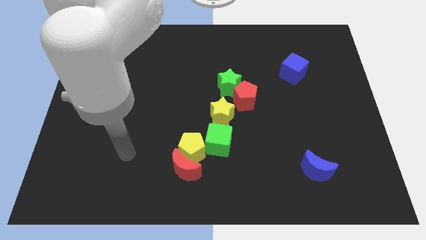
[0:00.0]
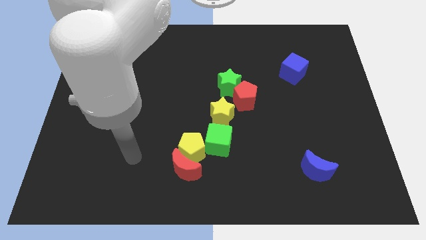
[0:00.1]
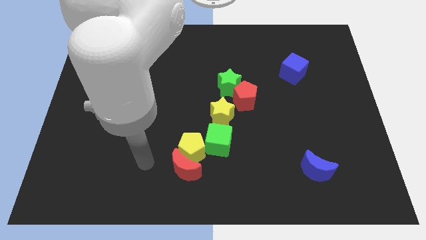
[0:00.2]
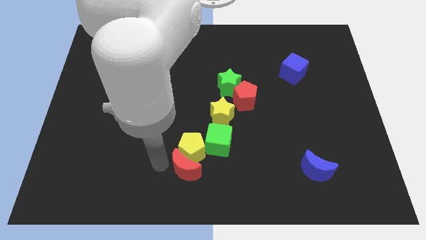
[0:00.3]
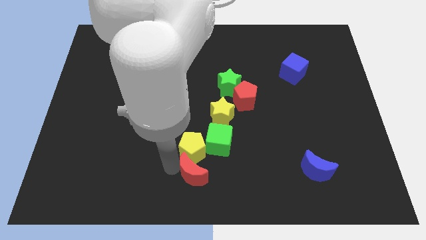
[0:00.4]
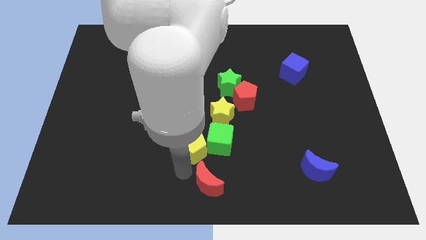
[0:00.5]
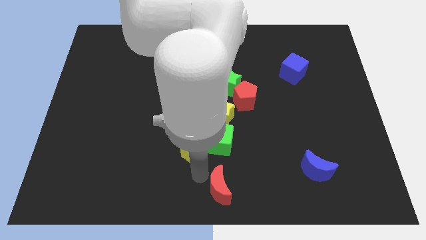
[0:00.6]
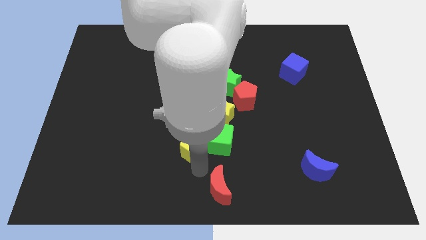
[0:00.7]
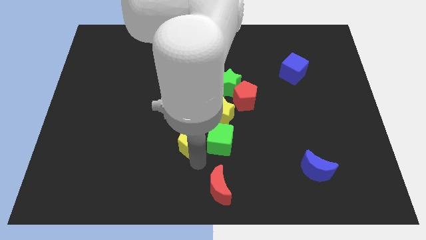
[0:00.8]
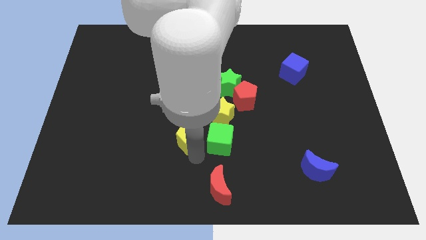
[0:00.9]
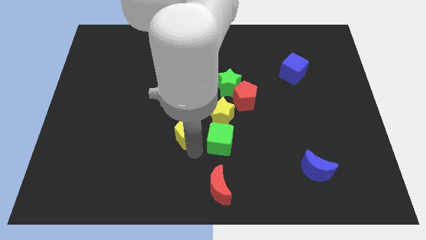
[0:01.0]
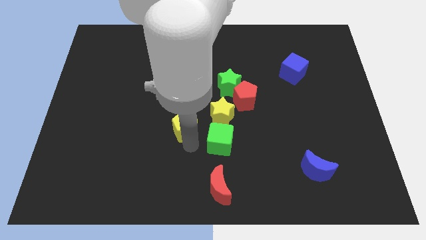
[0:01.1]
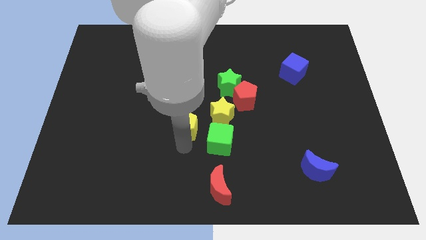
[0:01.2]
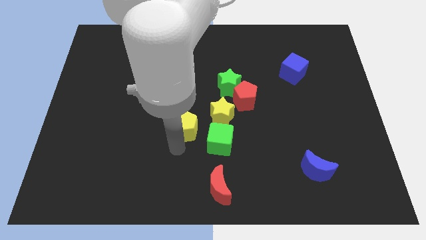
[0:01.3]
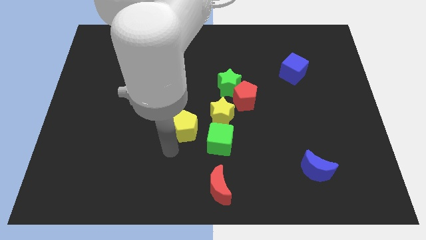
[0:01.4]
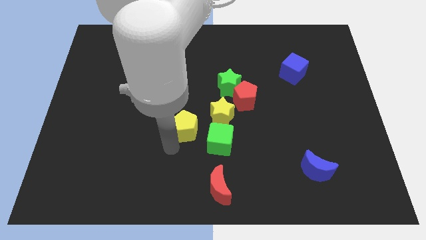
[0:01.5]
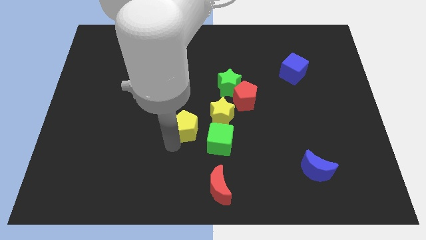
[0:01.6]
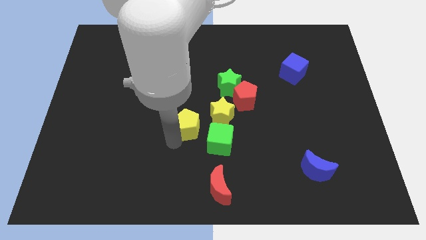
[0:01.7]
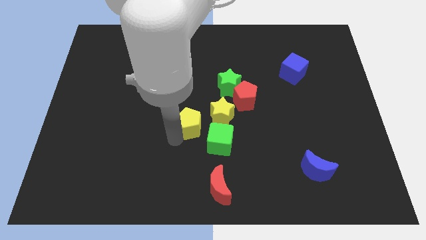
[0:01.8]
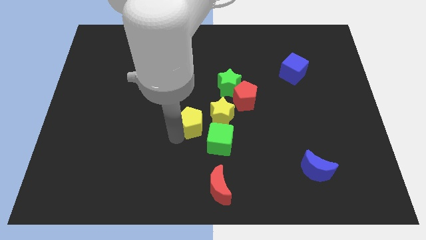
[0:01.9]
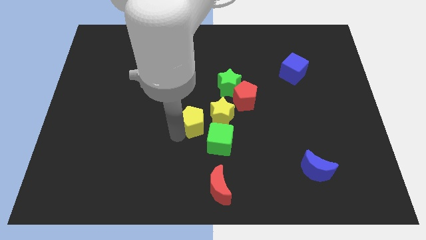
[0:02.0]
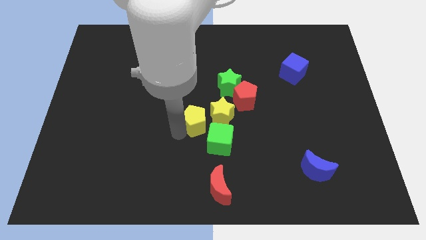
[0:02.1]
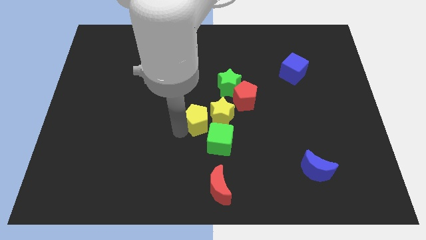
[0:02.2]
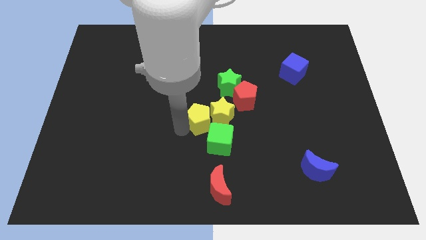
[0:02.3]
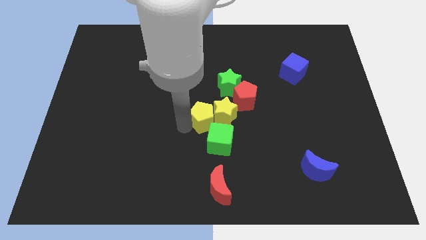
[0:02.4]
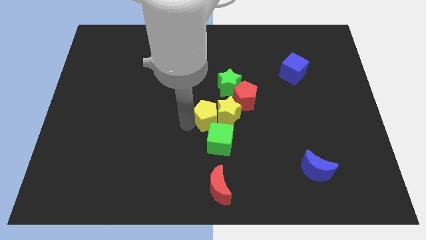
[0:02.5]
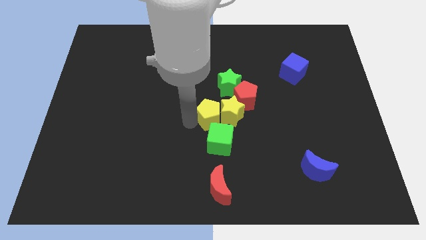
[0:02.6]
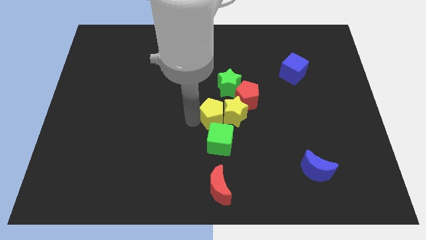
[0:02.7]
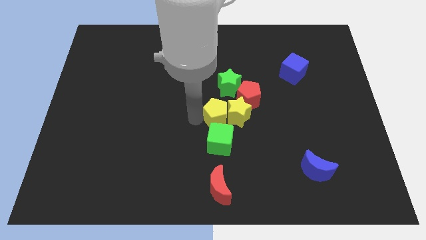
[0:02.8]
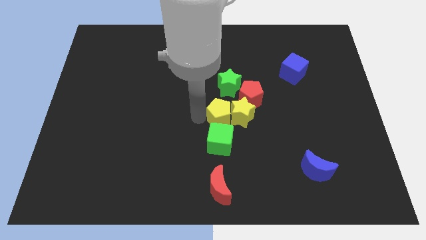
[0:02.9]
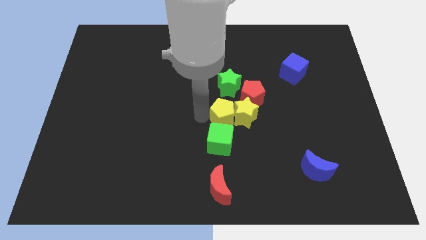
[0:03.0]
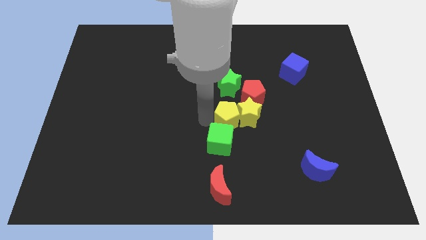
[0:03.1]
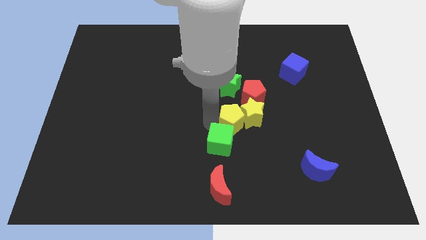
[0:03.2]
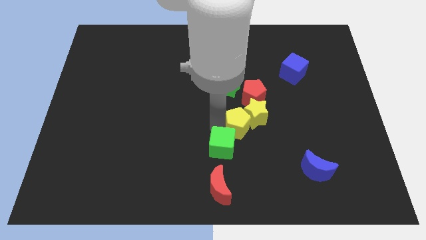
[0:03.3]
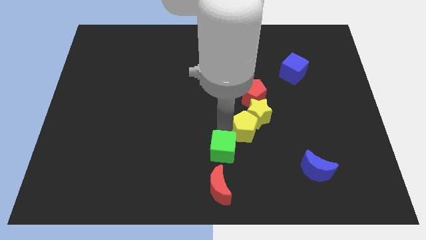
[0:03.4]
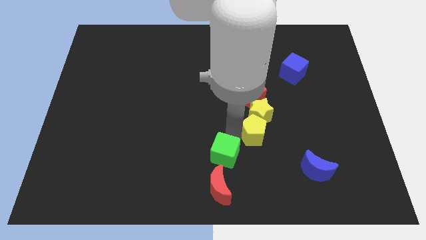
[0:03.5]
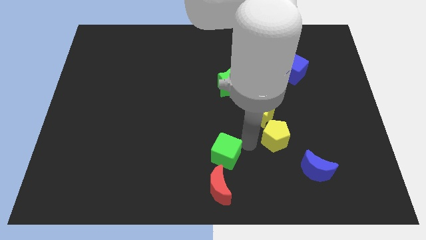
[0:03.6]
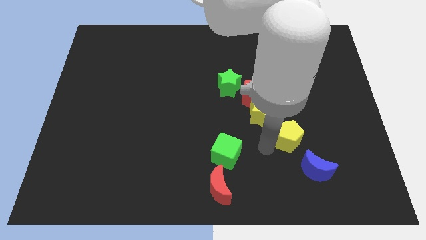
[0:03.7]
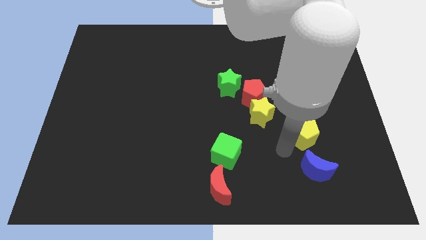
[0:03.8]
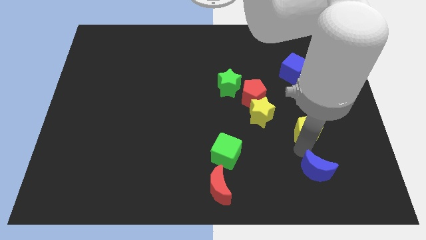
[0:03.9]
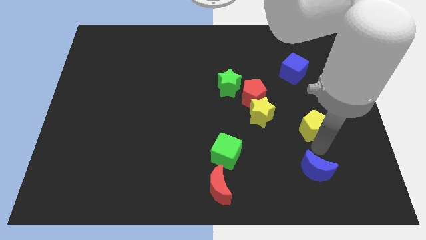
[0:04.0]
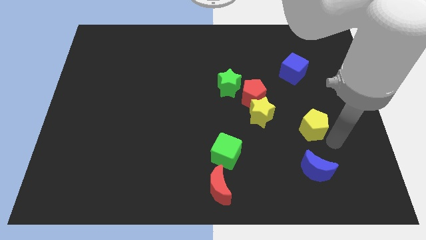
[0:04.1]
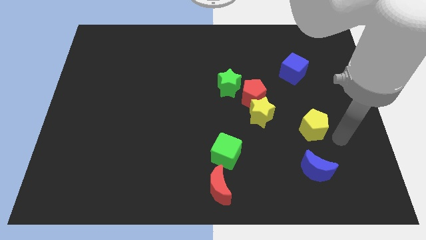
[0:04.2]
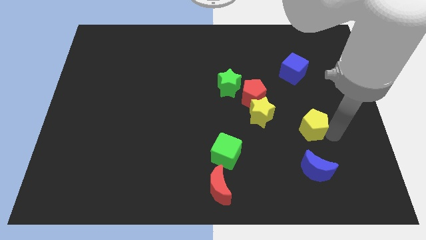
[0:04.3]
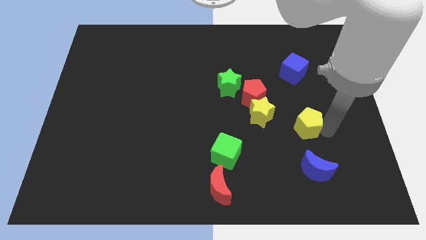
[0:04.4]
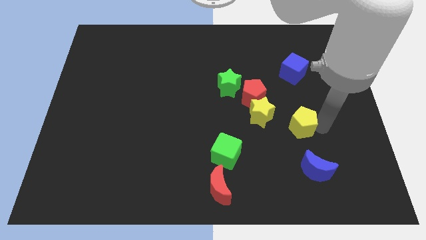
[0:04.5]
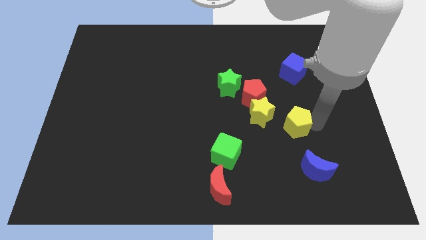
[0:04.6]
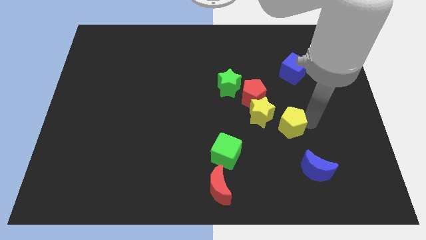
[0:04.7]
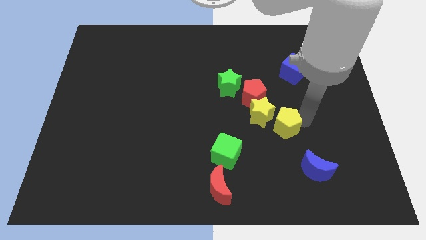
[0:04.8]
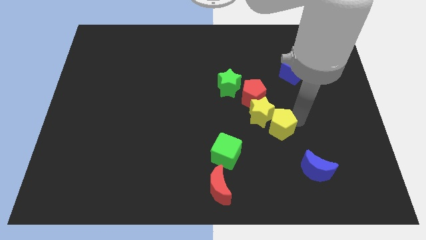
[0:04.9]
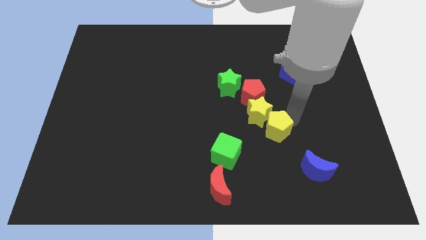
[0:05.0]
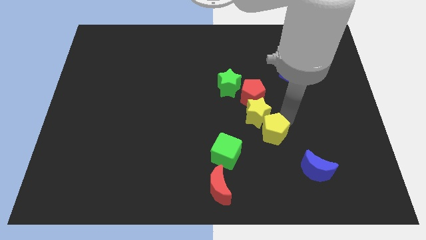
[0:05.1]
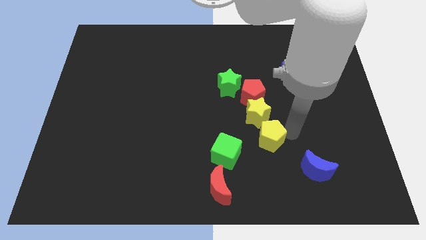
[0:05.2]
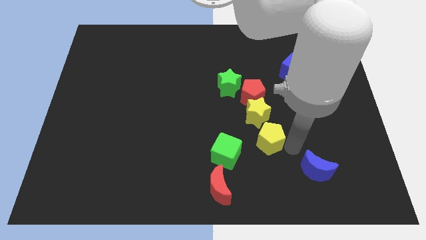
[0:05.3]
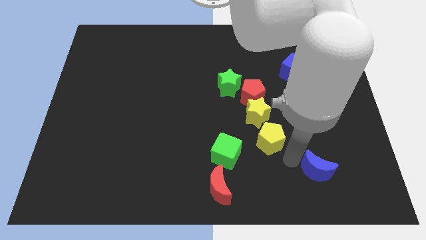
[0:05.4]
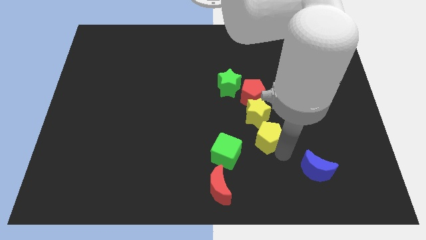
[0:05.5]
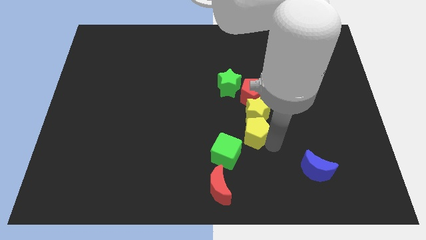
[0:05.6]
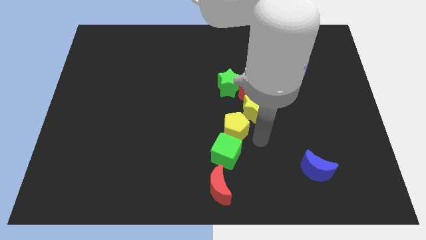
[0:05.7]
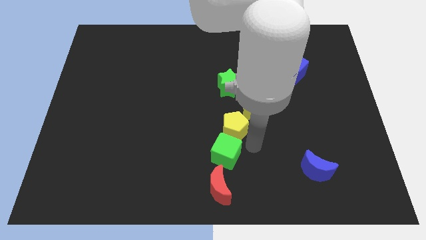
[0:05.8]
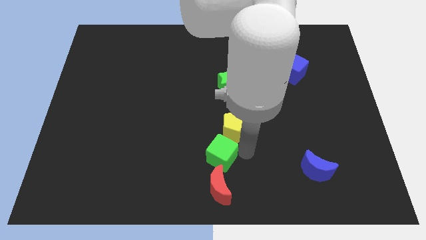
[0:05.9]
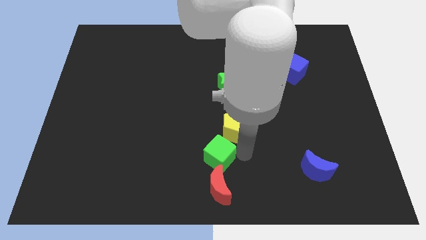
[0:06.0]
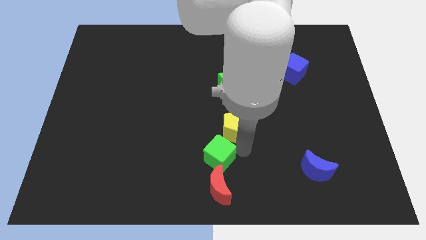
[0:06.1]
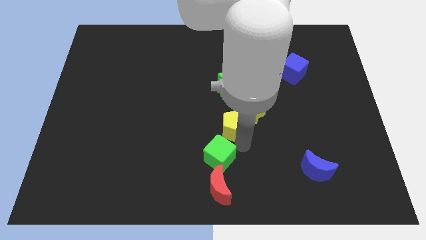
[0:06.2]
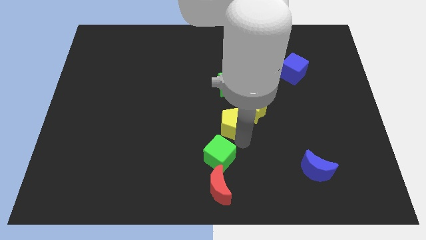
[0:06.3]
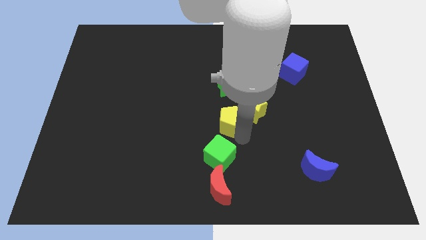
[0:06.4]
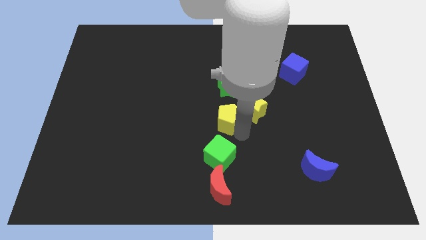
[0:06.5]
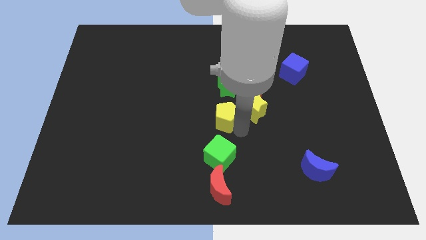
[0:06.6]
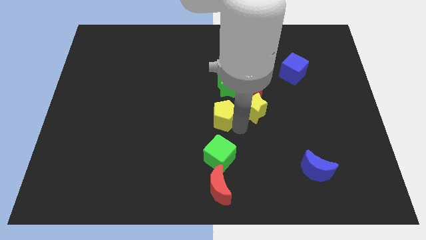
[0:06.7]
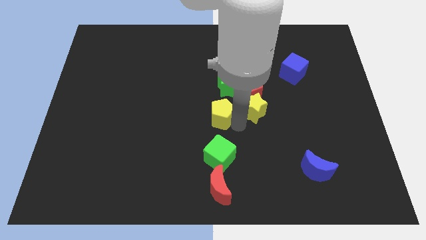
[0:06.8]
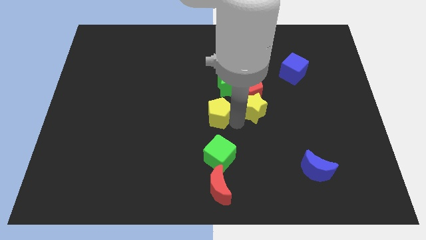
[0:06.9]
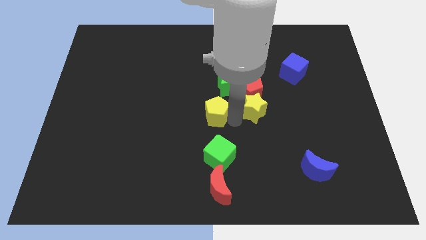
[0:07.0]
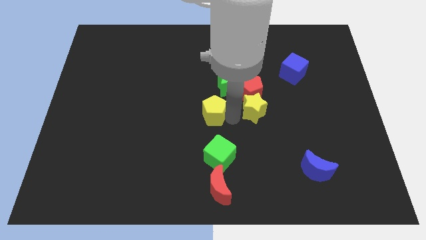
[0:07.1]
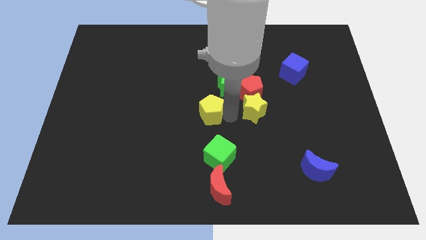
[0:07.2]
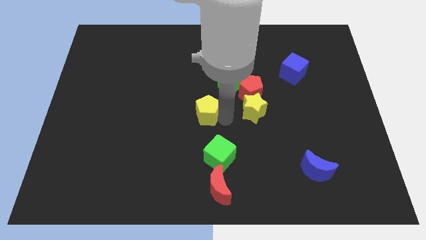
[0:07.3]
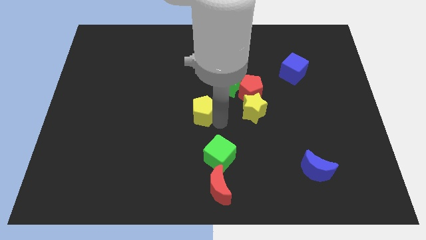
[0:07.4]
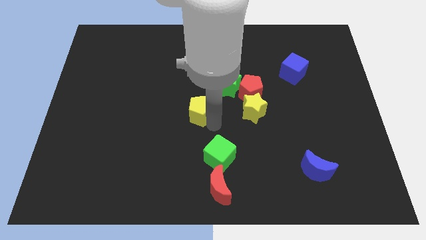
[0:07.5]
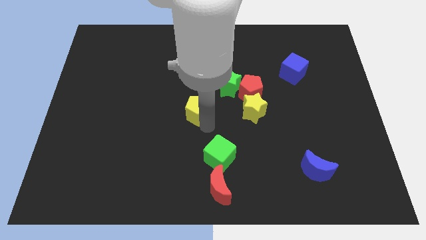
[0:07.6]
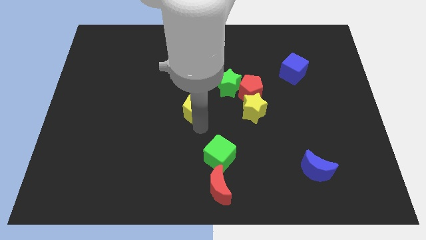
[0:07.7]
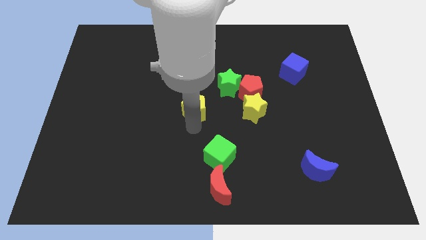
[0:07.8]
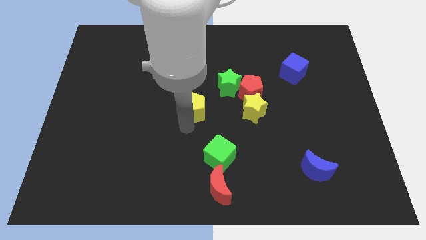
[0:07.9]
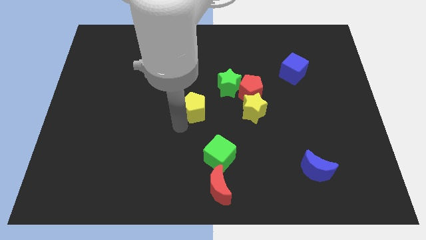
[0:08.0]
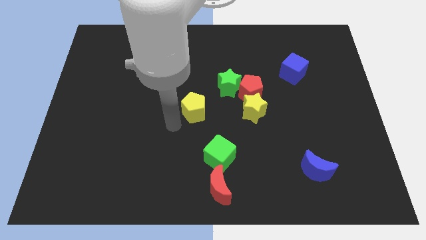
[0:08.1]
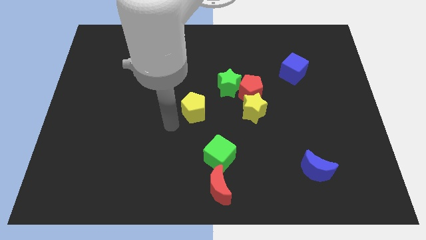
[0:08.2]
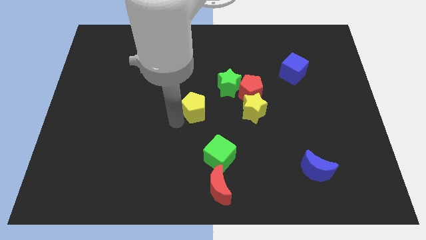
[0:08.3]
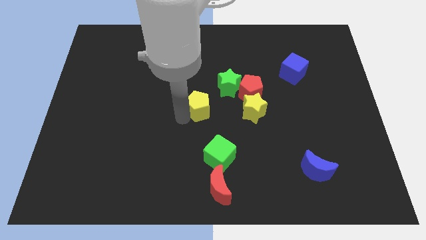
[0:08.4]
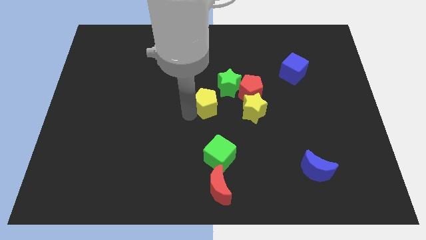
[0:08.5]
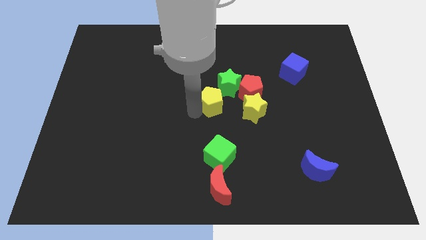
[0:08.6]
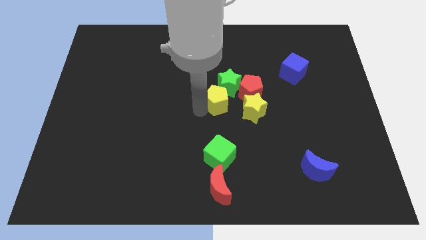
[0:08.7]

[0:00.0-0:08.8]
slide the yellow pentagon close to the green star
